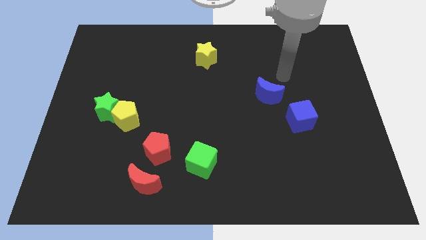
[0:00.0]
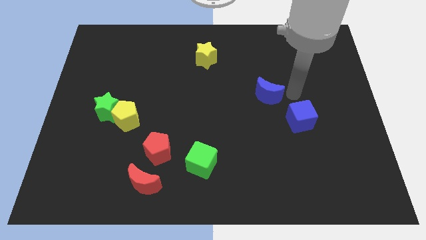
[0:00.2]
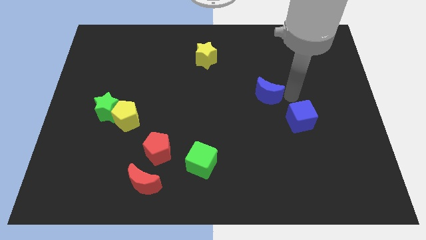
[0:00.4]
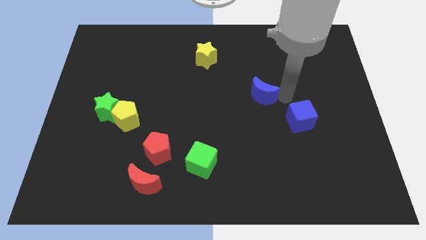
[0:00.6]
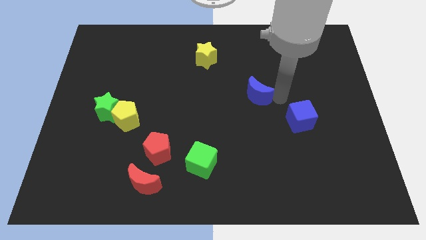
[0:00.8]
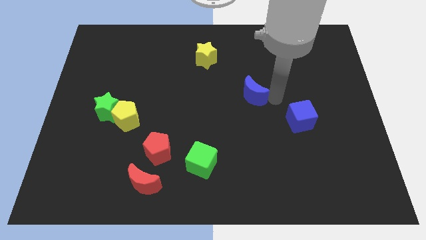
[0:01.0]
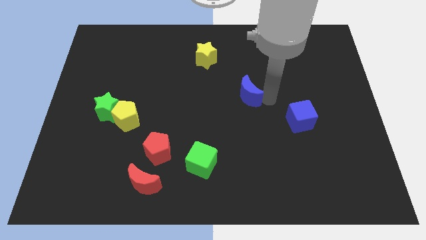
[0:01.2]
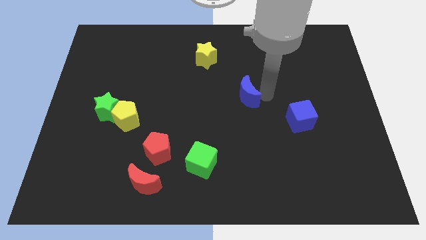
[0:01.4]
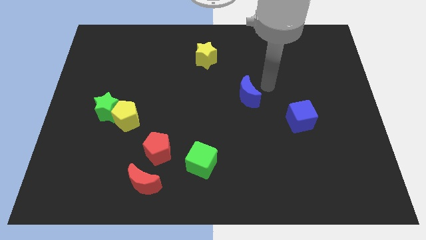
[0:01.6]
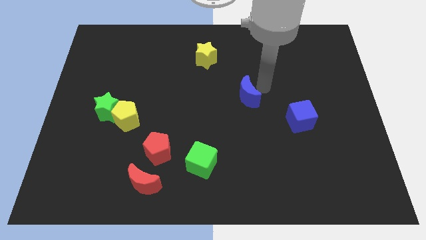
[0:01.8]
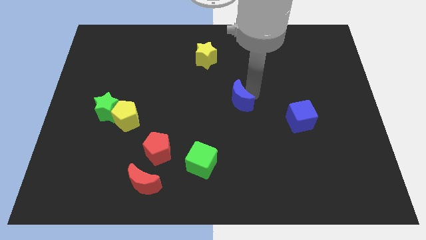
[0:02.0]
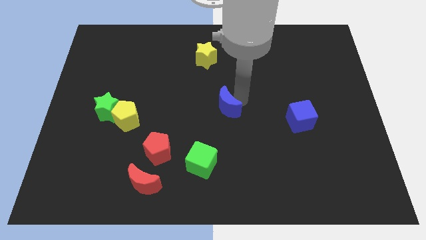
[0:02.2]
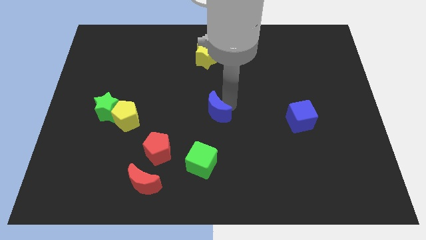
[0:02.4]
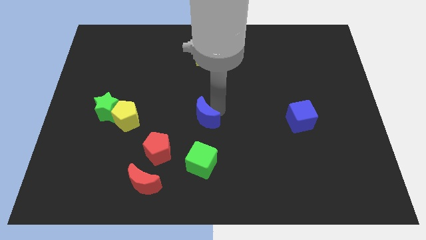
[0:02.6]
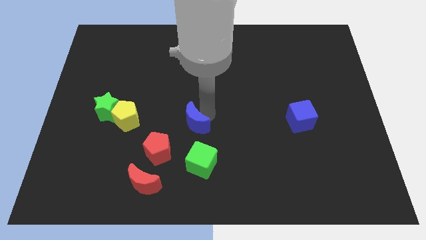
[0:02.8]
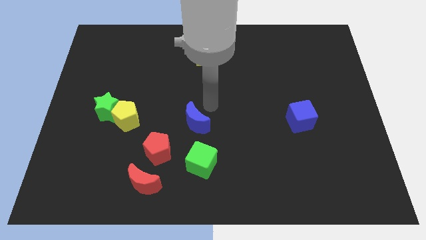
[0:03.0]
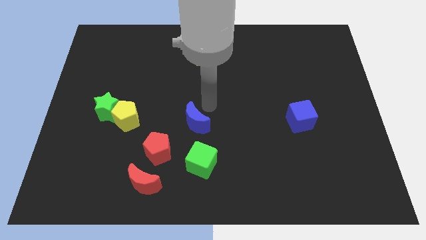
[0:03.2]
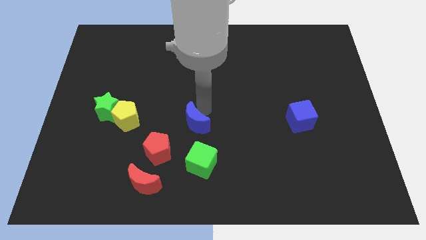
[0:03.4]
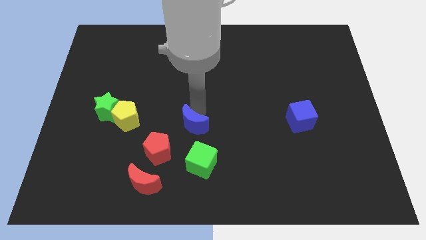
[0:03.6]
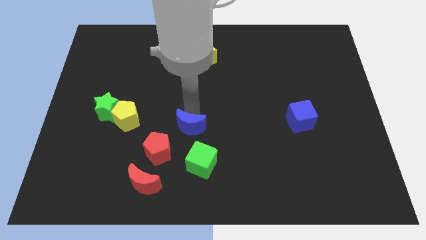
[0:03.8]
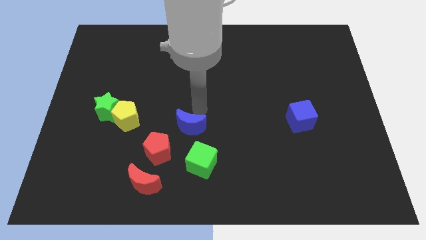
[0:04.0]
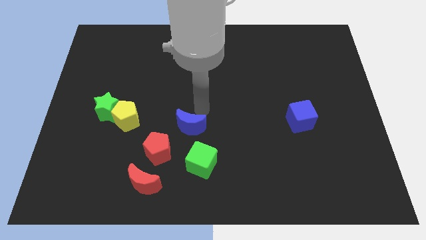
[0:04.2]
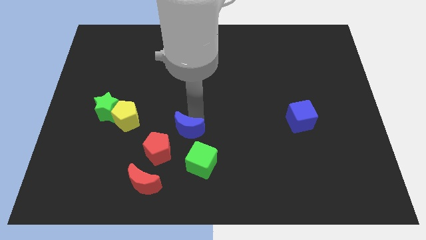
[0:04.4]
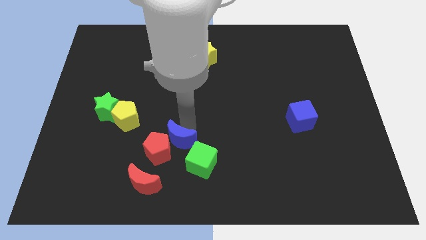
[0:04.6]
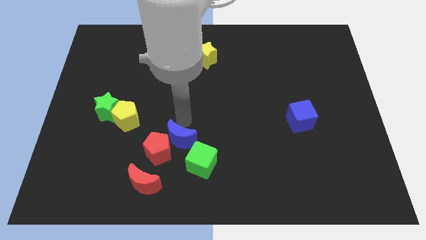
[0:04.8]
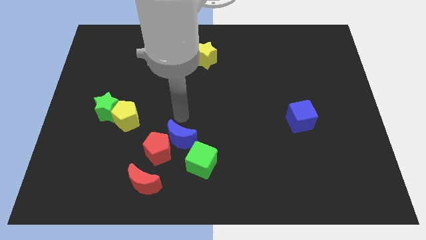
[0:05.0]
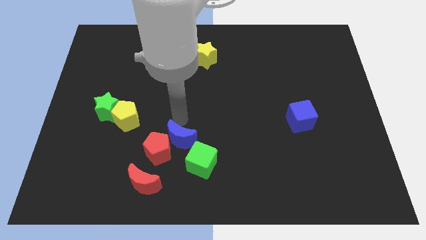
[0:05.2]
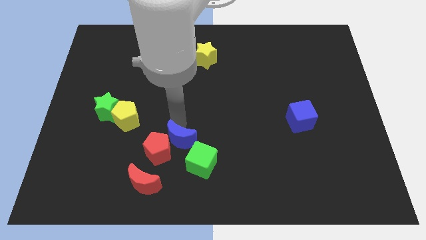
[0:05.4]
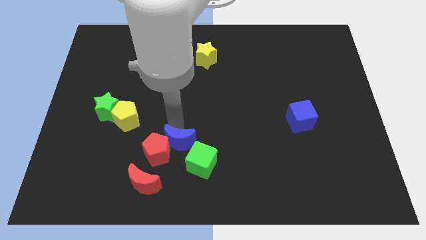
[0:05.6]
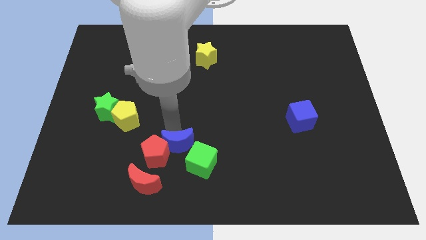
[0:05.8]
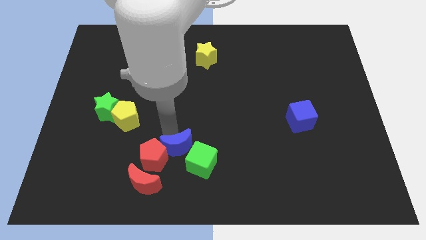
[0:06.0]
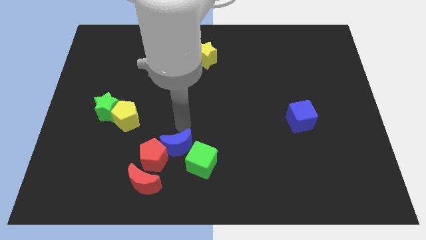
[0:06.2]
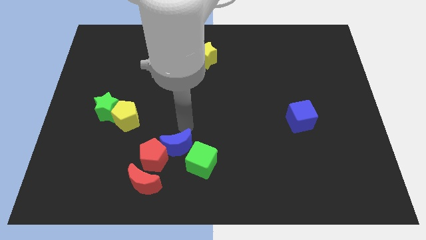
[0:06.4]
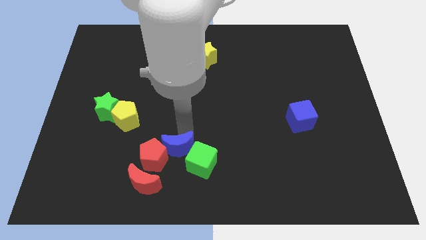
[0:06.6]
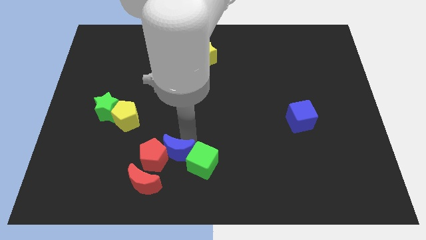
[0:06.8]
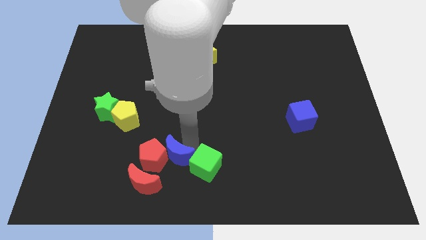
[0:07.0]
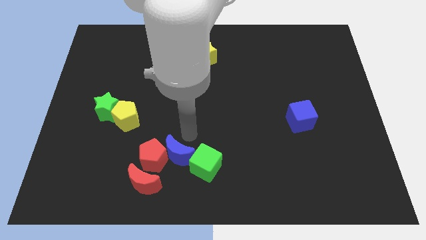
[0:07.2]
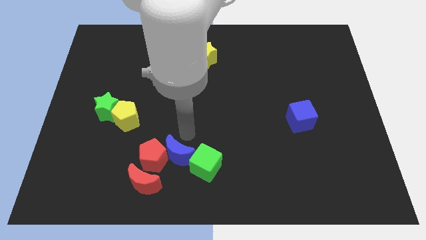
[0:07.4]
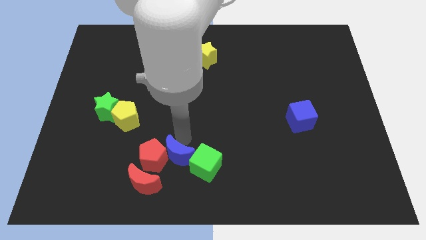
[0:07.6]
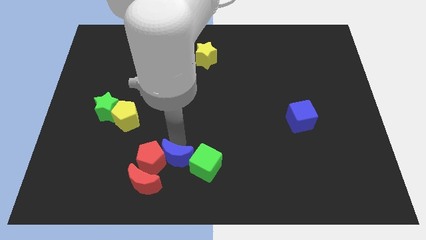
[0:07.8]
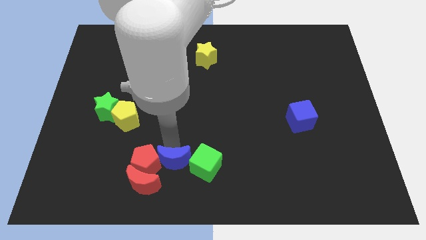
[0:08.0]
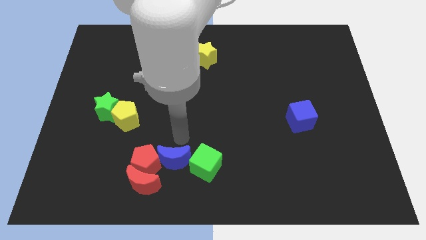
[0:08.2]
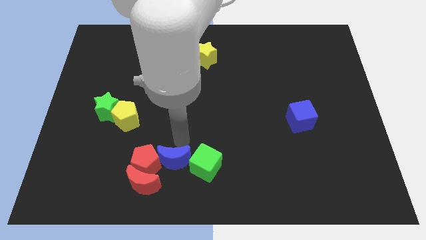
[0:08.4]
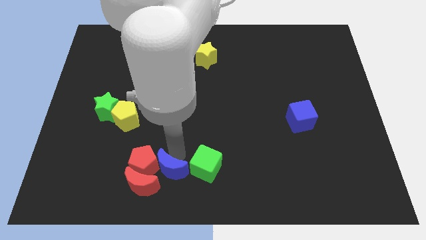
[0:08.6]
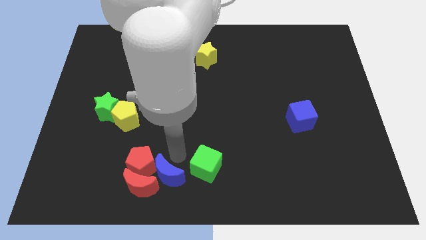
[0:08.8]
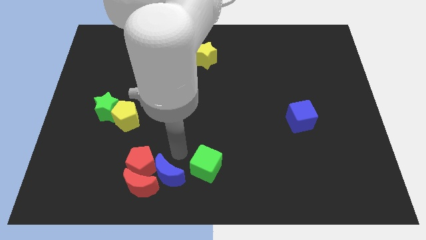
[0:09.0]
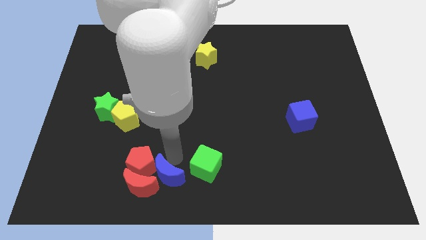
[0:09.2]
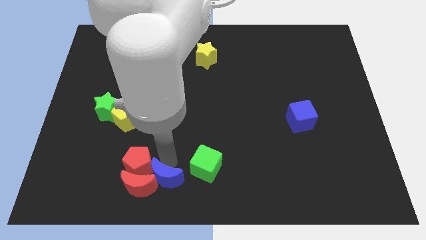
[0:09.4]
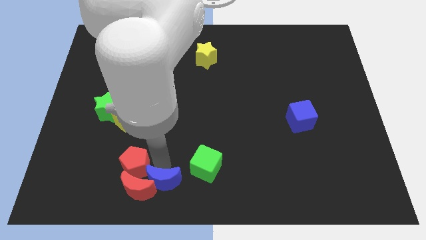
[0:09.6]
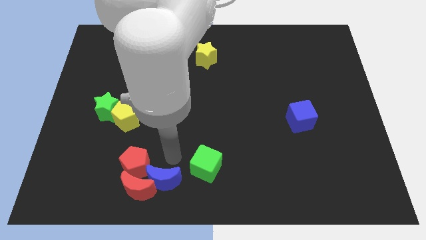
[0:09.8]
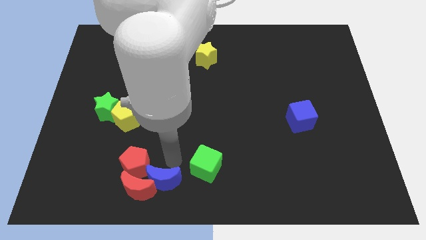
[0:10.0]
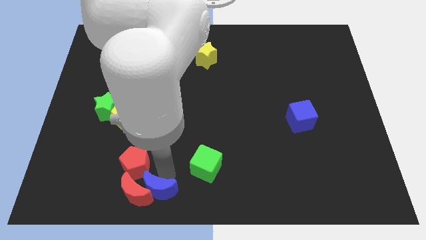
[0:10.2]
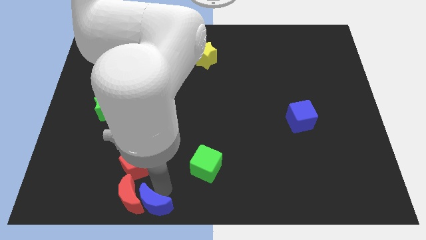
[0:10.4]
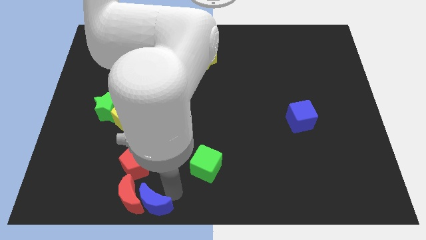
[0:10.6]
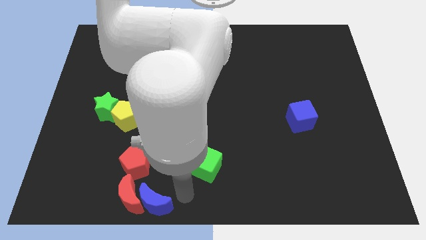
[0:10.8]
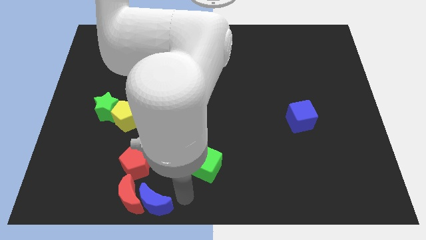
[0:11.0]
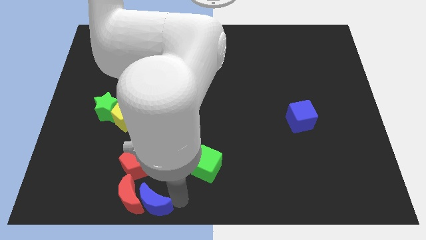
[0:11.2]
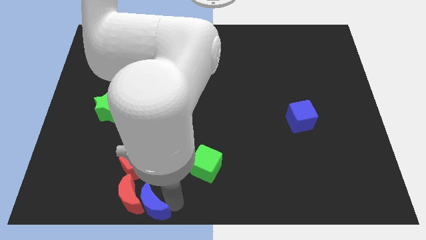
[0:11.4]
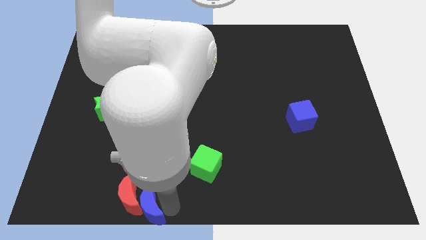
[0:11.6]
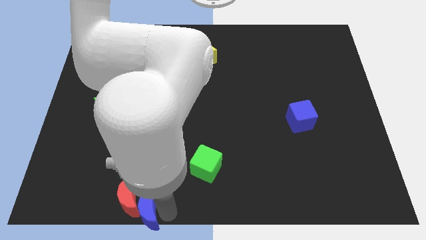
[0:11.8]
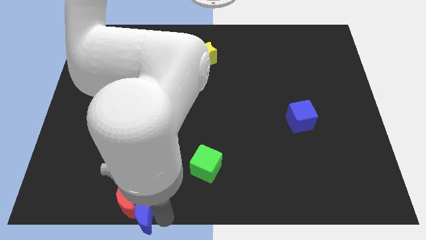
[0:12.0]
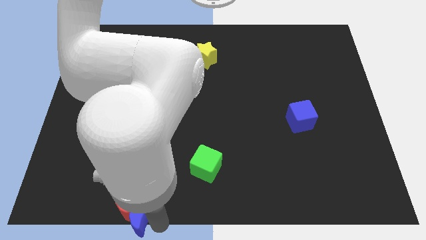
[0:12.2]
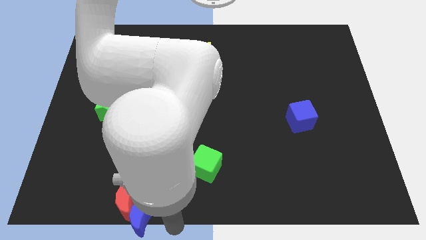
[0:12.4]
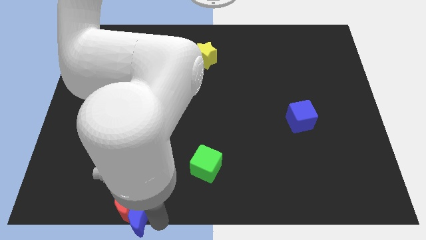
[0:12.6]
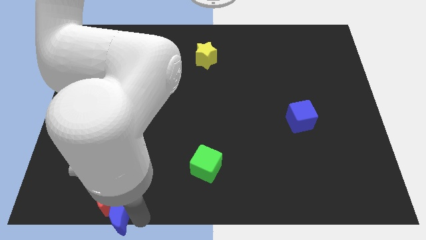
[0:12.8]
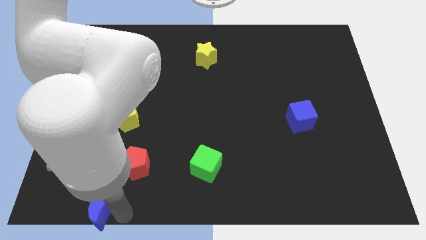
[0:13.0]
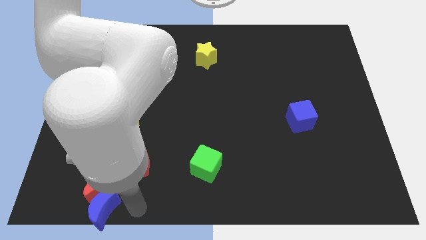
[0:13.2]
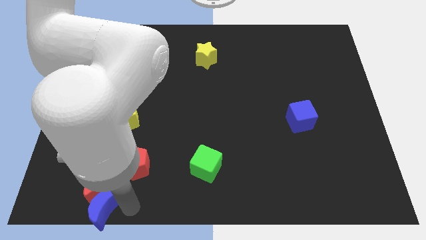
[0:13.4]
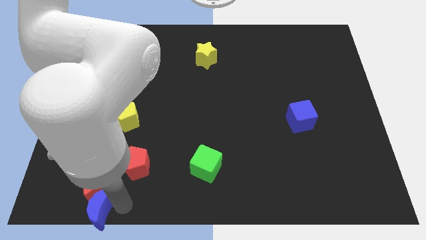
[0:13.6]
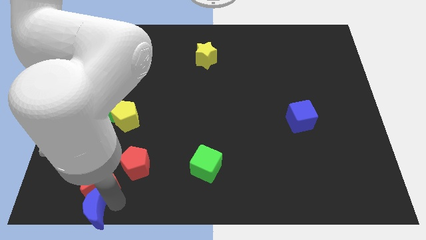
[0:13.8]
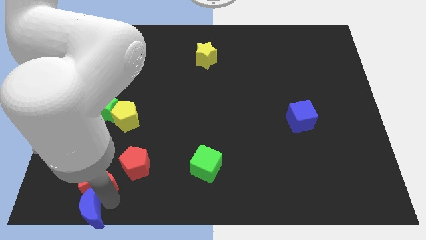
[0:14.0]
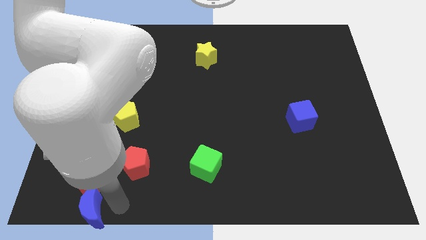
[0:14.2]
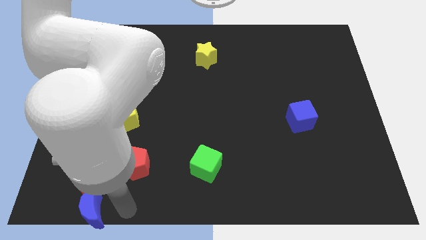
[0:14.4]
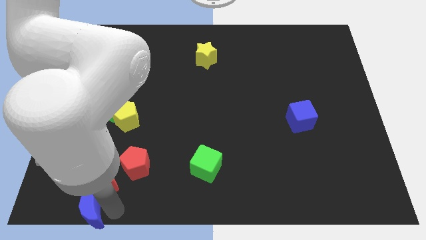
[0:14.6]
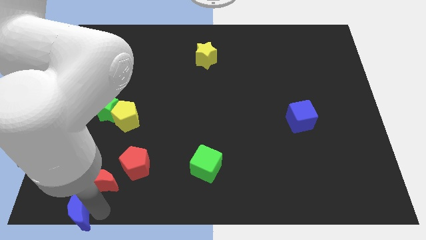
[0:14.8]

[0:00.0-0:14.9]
slide the blue moon to the bottom left of the board
